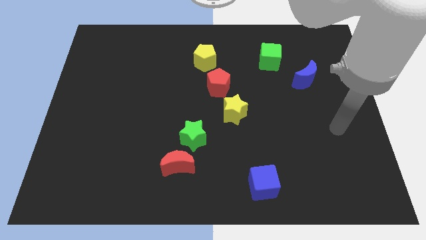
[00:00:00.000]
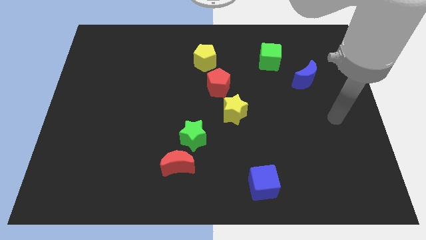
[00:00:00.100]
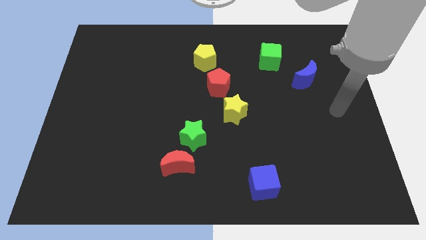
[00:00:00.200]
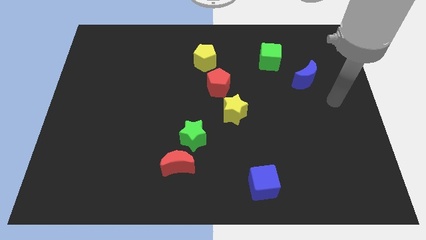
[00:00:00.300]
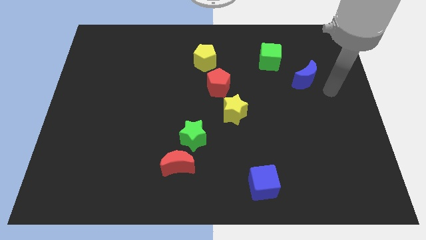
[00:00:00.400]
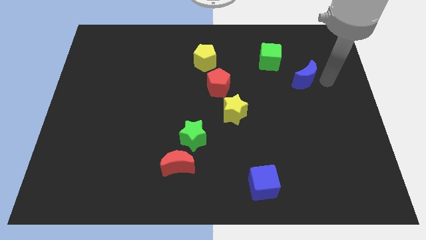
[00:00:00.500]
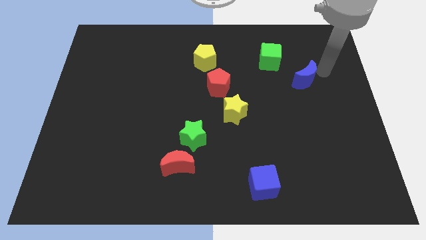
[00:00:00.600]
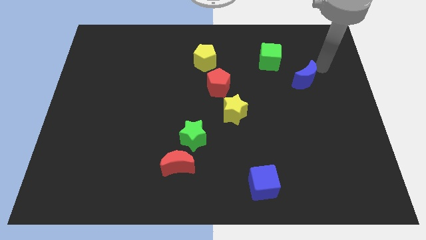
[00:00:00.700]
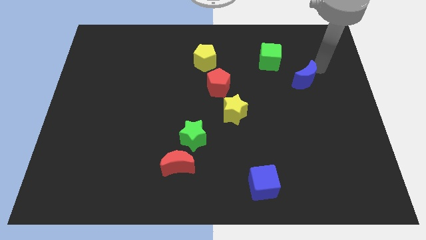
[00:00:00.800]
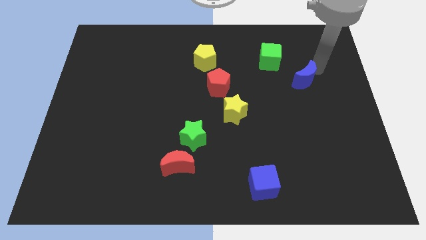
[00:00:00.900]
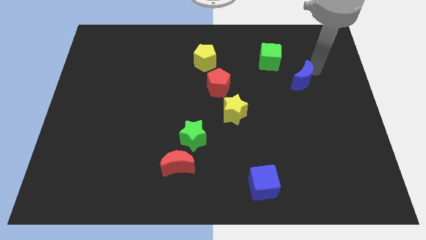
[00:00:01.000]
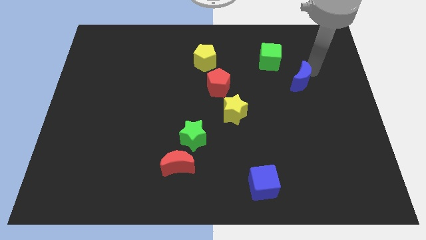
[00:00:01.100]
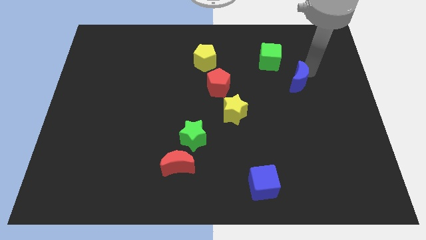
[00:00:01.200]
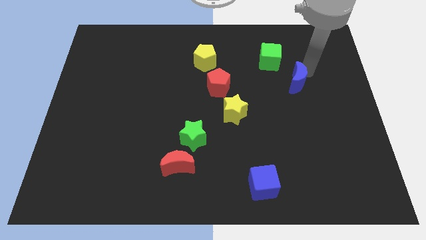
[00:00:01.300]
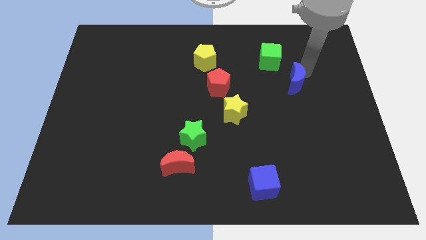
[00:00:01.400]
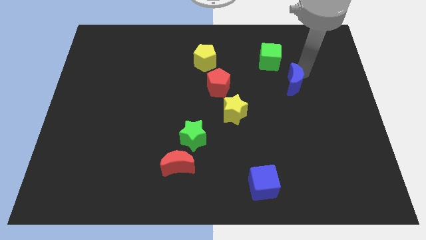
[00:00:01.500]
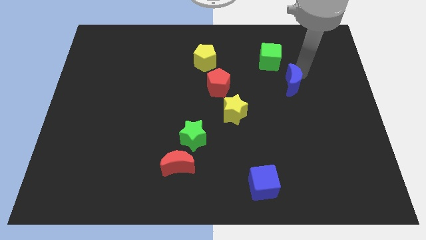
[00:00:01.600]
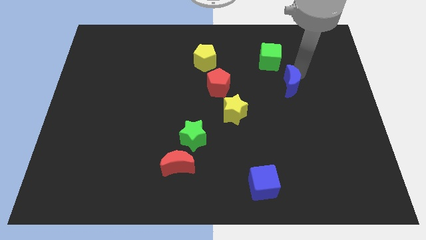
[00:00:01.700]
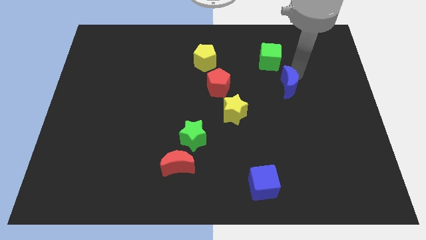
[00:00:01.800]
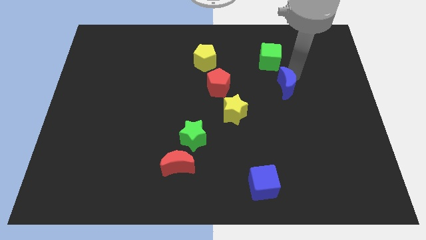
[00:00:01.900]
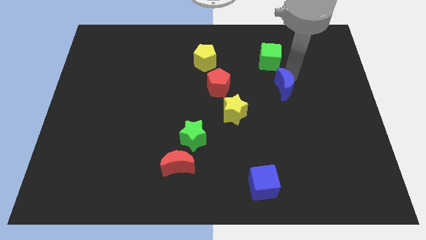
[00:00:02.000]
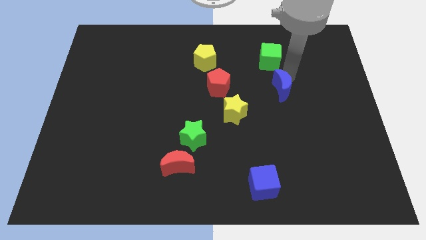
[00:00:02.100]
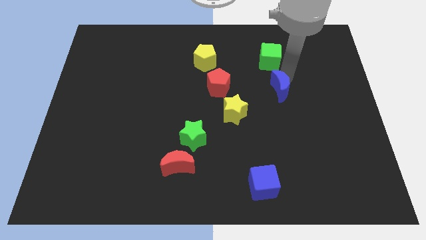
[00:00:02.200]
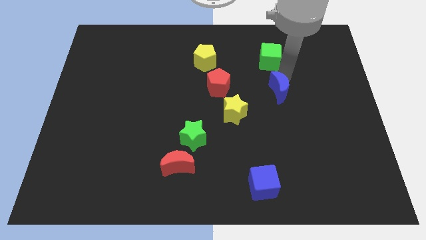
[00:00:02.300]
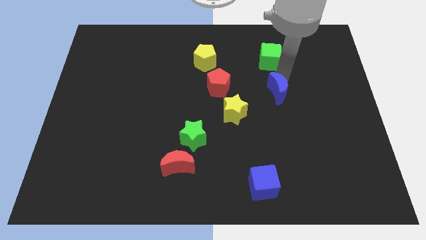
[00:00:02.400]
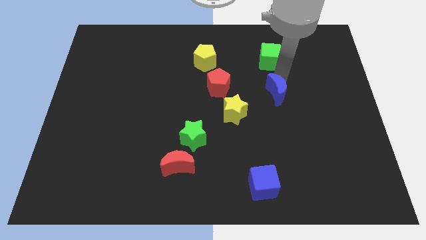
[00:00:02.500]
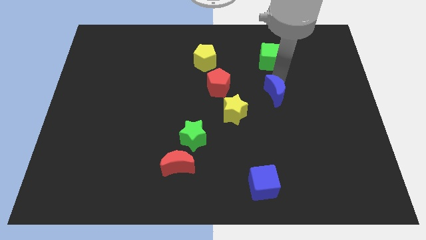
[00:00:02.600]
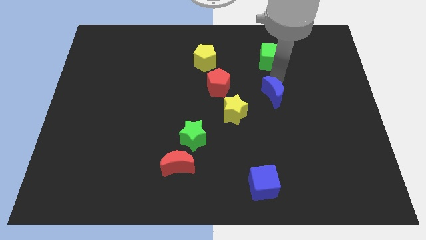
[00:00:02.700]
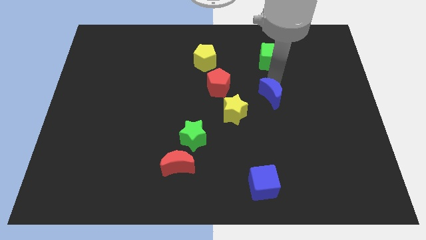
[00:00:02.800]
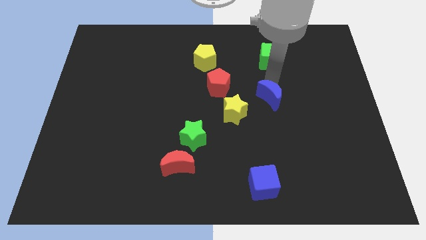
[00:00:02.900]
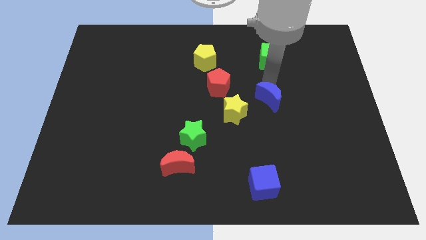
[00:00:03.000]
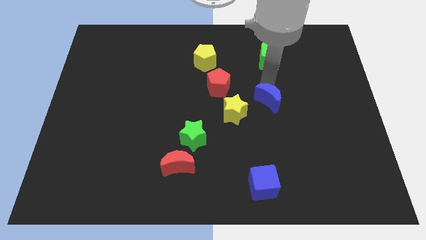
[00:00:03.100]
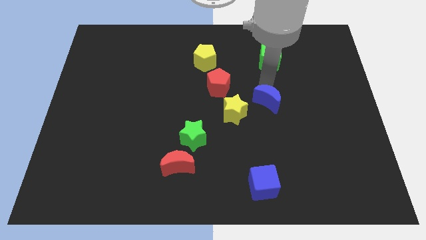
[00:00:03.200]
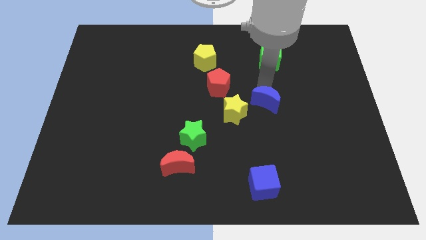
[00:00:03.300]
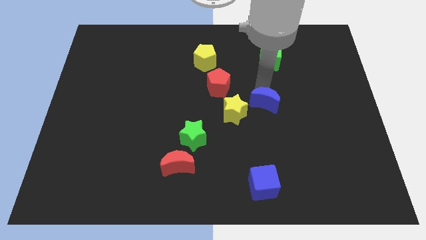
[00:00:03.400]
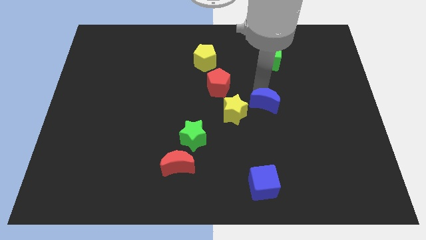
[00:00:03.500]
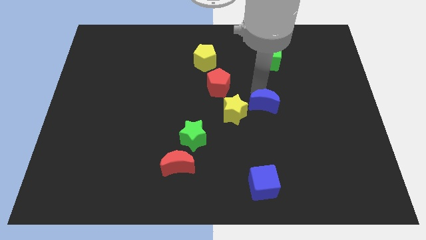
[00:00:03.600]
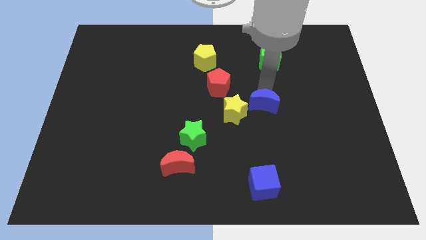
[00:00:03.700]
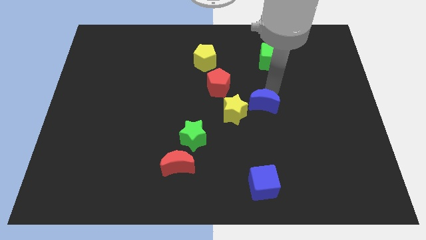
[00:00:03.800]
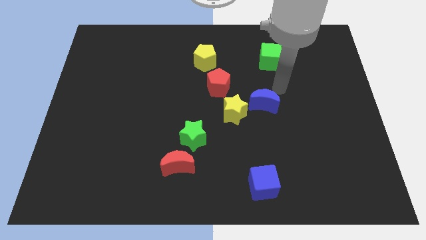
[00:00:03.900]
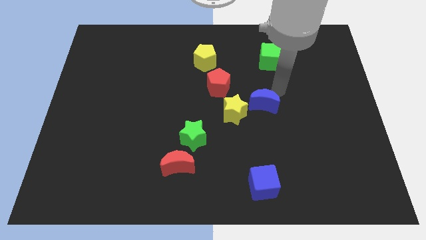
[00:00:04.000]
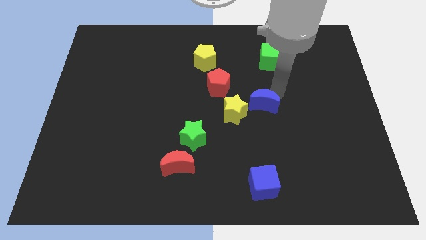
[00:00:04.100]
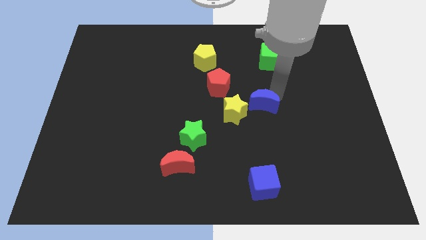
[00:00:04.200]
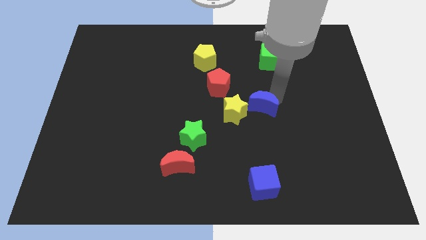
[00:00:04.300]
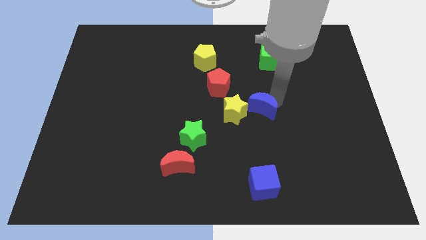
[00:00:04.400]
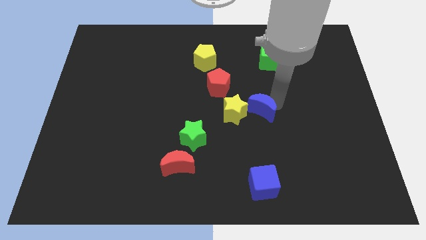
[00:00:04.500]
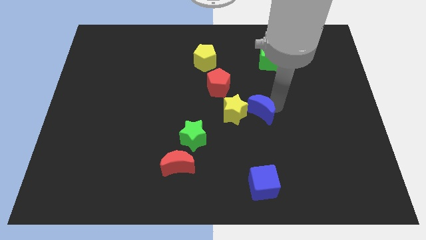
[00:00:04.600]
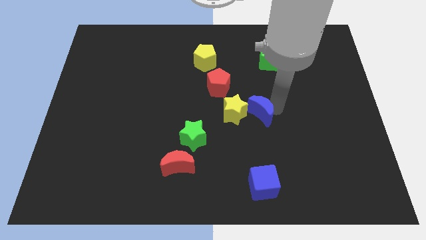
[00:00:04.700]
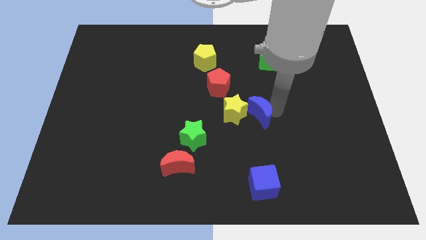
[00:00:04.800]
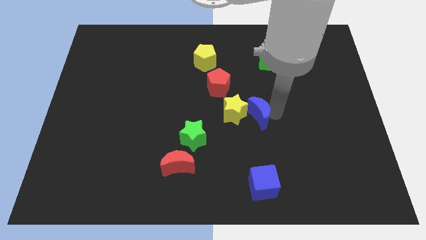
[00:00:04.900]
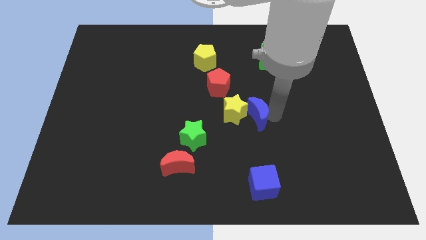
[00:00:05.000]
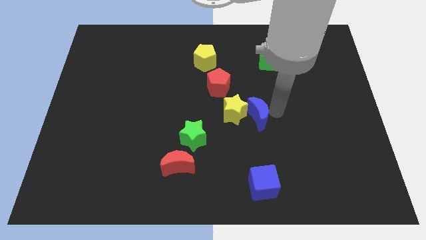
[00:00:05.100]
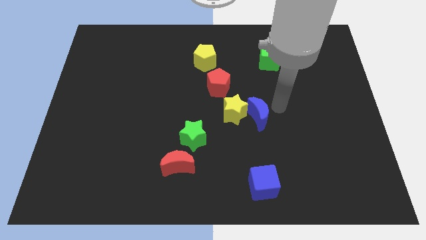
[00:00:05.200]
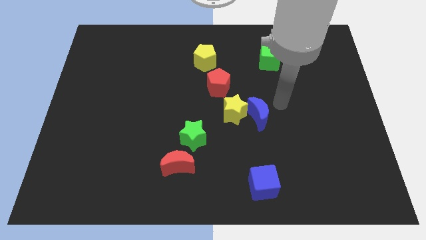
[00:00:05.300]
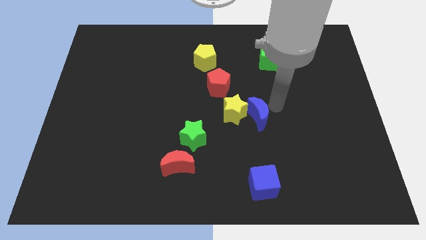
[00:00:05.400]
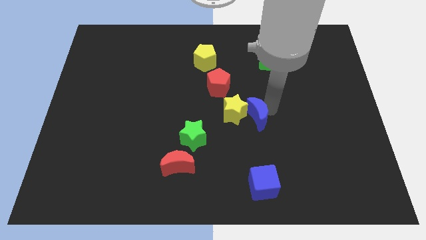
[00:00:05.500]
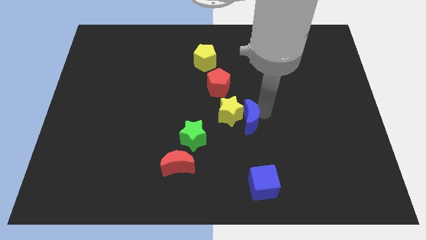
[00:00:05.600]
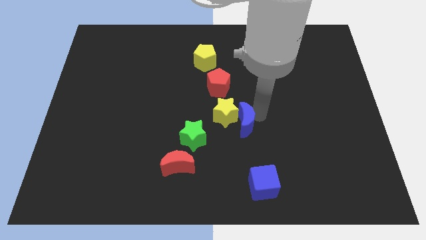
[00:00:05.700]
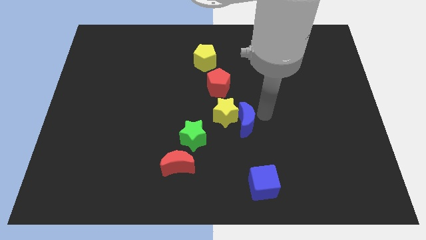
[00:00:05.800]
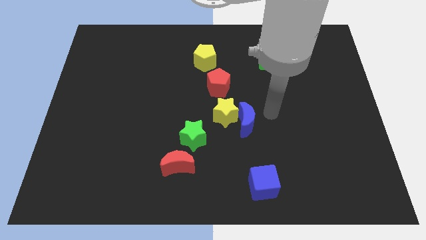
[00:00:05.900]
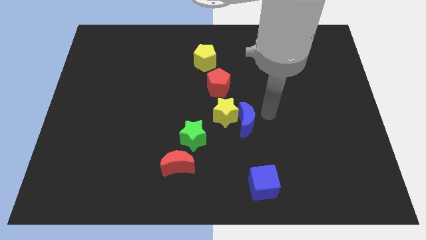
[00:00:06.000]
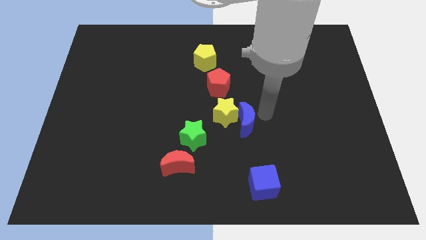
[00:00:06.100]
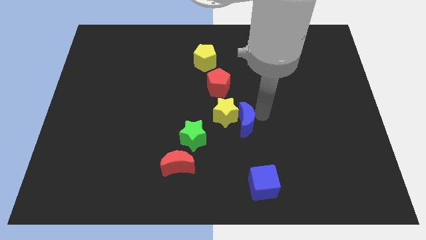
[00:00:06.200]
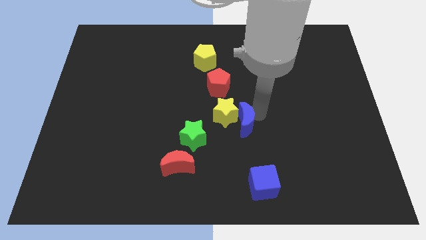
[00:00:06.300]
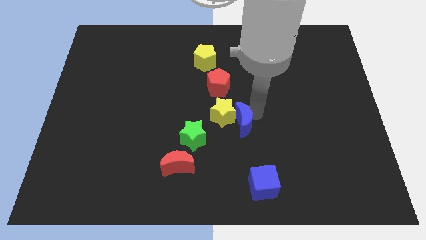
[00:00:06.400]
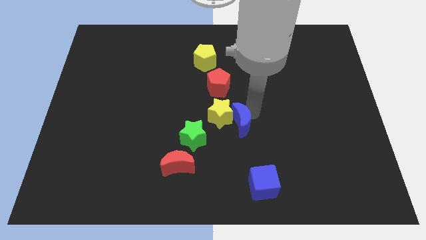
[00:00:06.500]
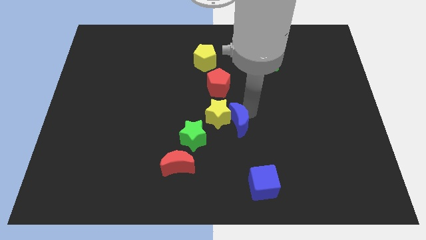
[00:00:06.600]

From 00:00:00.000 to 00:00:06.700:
push the blue moon below the red pentagon
